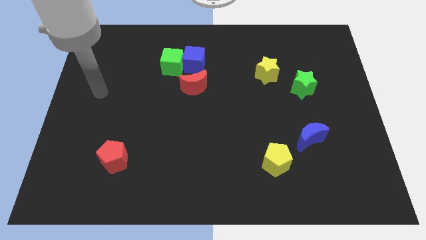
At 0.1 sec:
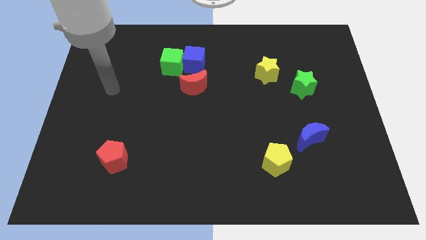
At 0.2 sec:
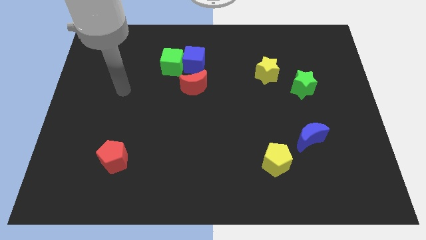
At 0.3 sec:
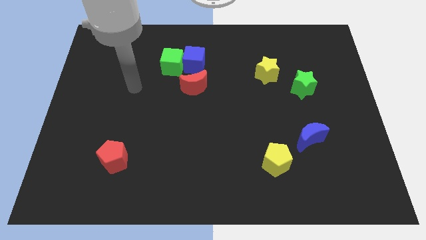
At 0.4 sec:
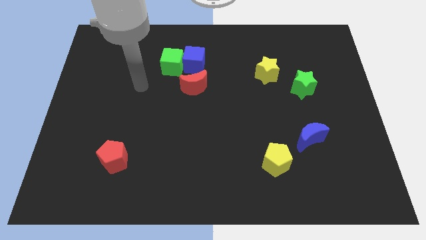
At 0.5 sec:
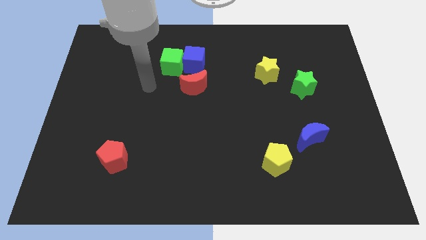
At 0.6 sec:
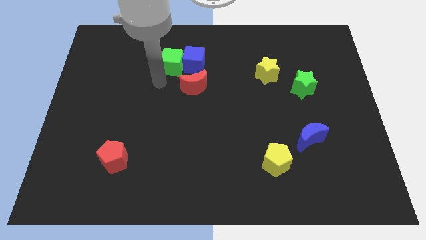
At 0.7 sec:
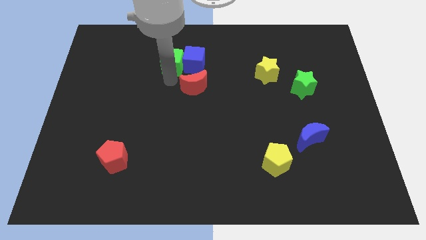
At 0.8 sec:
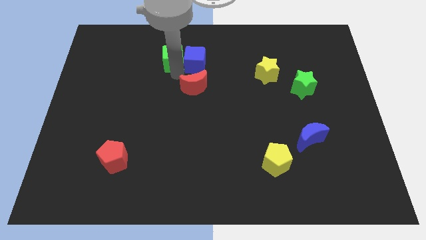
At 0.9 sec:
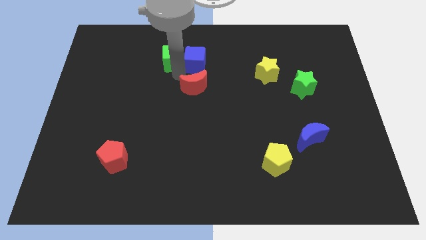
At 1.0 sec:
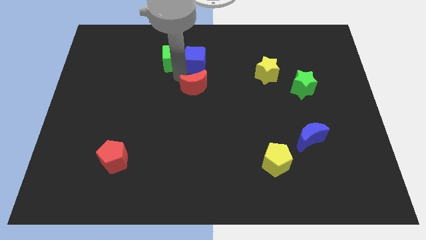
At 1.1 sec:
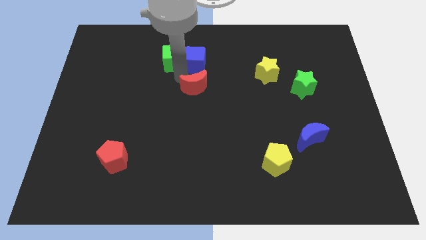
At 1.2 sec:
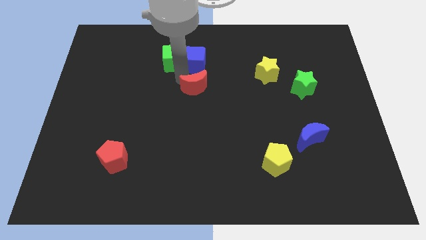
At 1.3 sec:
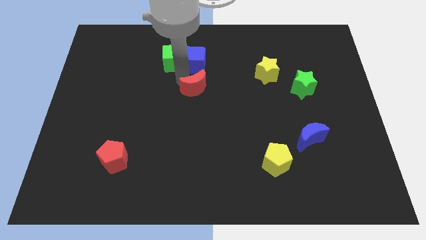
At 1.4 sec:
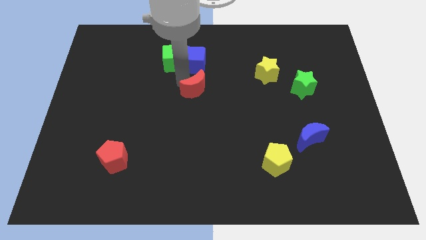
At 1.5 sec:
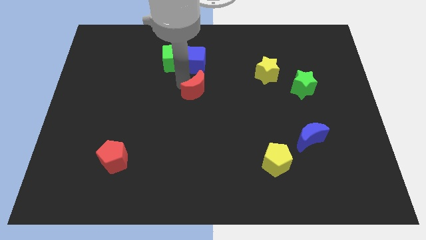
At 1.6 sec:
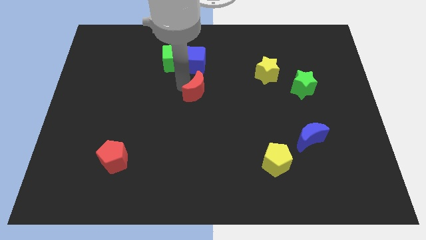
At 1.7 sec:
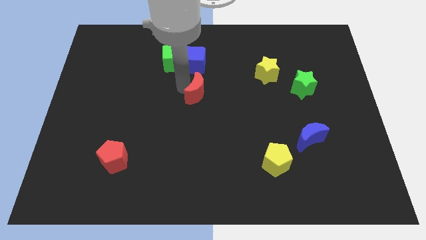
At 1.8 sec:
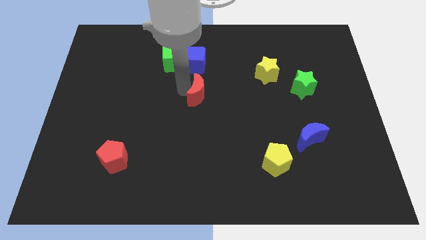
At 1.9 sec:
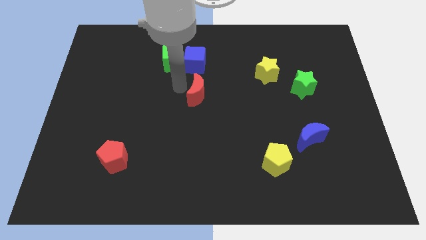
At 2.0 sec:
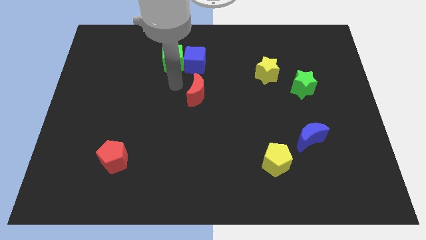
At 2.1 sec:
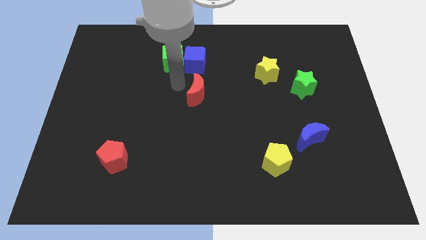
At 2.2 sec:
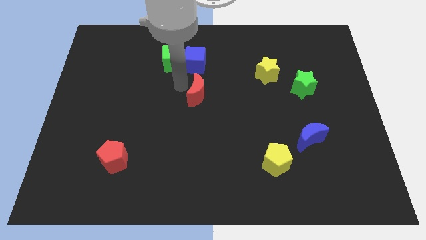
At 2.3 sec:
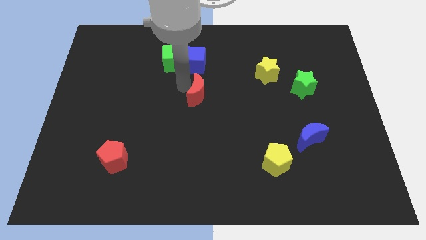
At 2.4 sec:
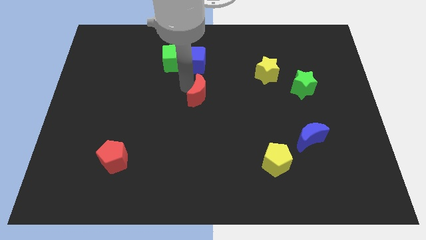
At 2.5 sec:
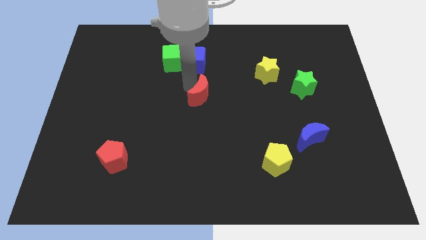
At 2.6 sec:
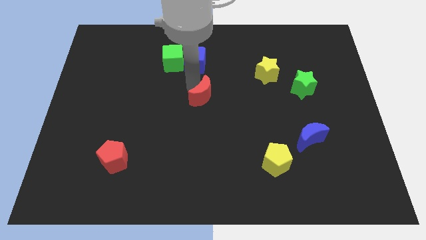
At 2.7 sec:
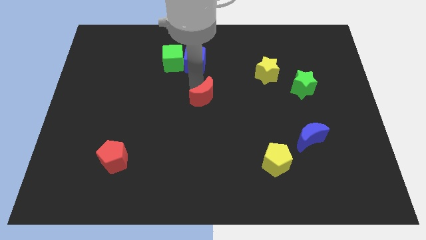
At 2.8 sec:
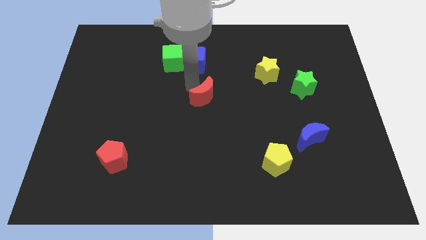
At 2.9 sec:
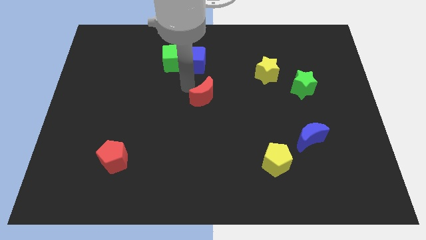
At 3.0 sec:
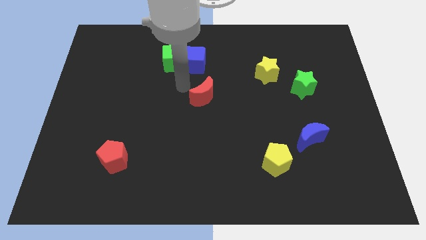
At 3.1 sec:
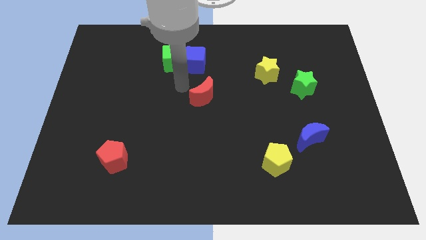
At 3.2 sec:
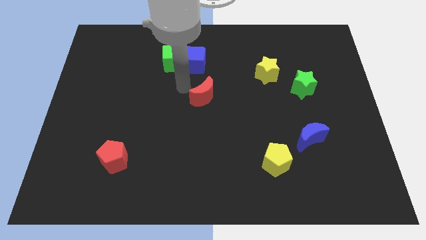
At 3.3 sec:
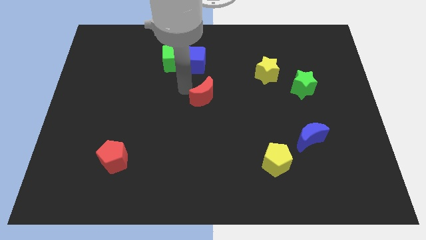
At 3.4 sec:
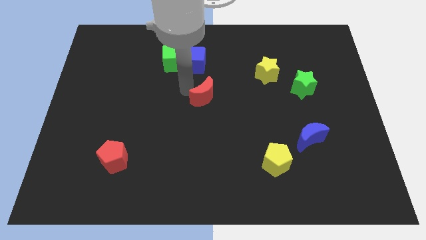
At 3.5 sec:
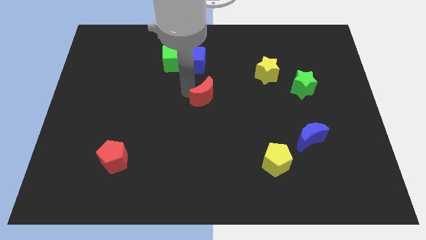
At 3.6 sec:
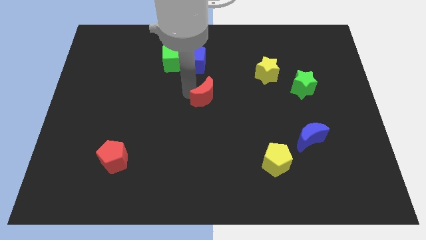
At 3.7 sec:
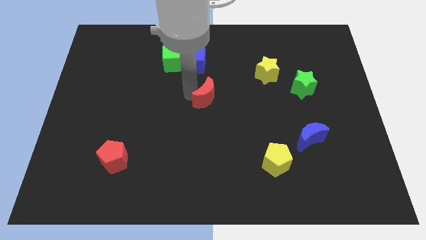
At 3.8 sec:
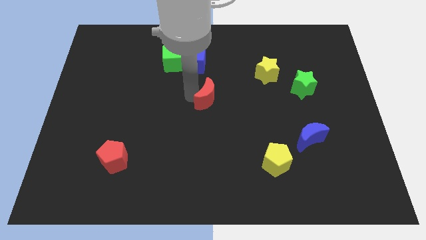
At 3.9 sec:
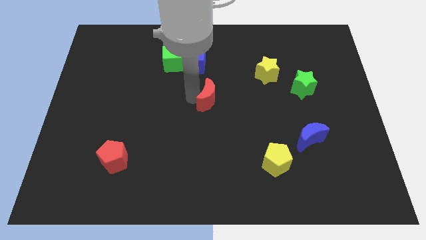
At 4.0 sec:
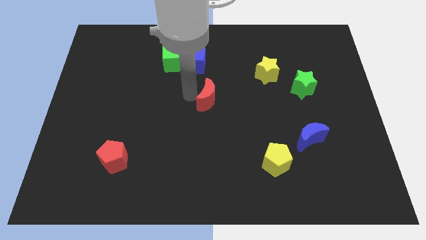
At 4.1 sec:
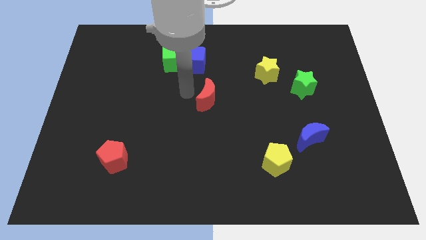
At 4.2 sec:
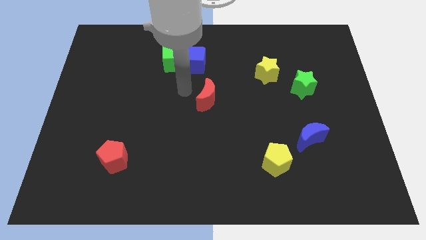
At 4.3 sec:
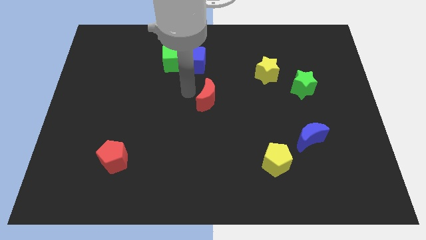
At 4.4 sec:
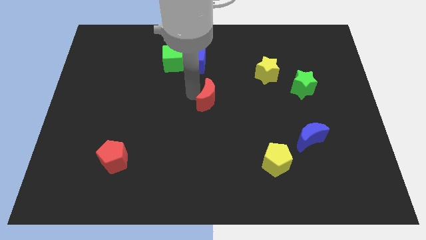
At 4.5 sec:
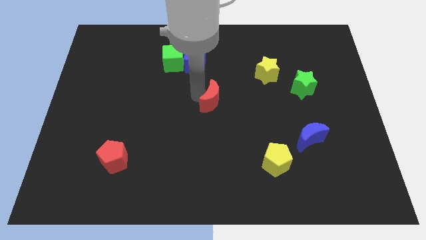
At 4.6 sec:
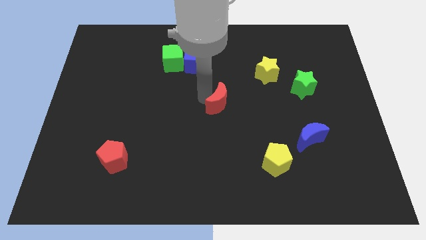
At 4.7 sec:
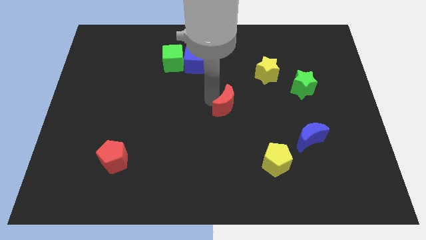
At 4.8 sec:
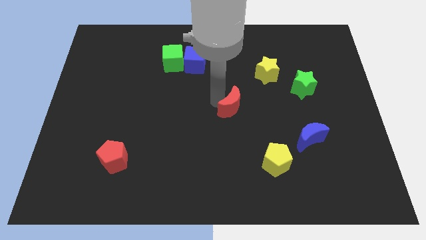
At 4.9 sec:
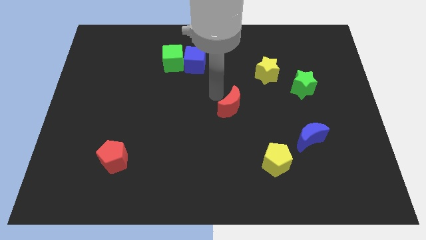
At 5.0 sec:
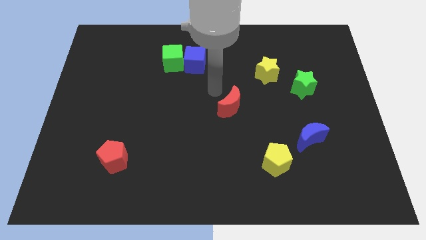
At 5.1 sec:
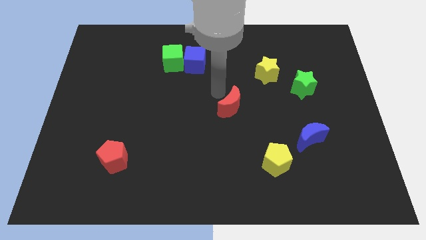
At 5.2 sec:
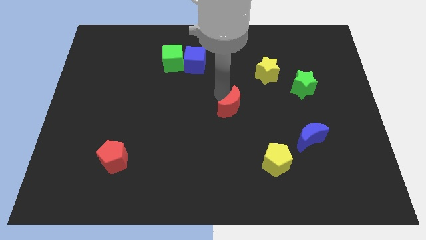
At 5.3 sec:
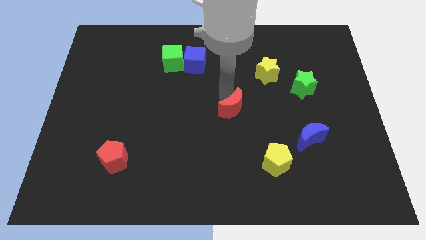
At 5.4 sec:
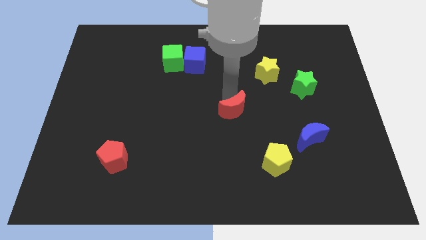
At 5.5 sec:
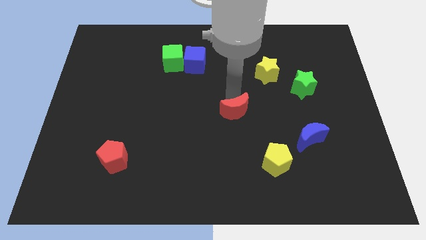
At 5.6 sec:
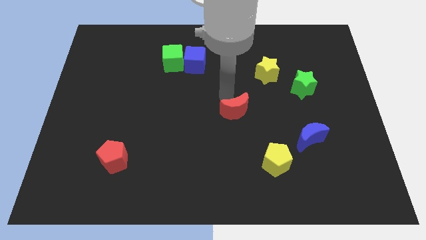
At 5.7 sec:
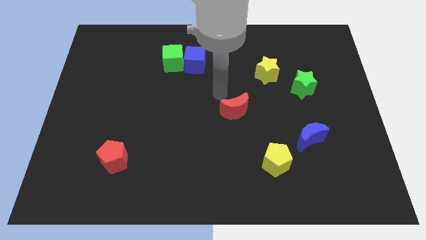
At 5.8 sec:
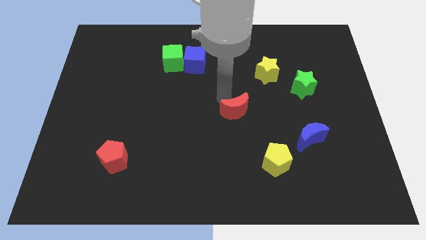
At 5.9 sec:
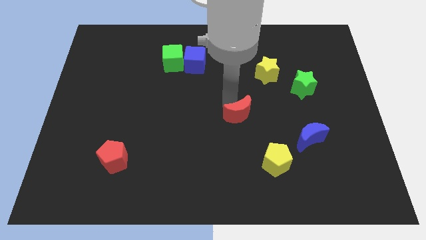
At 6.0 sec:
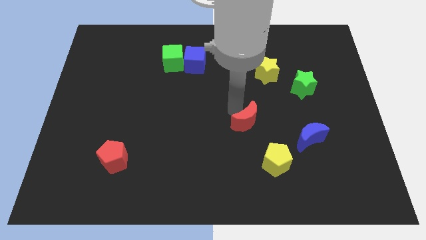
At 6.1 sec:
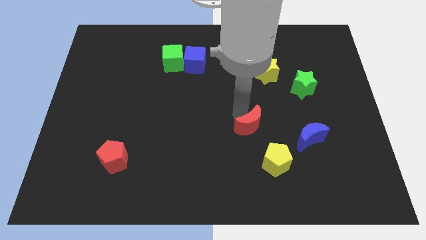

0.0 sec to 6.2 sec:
slide the red moon to the left side of the blue moon
